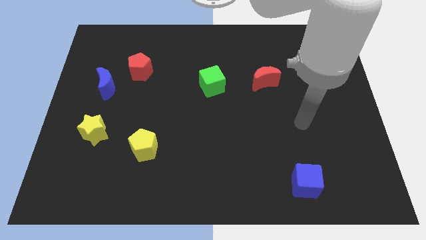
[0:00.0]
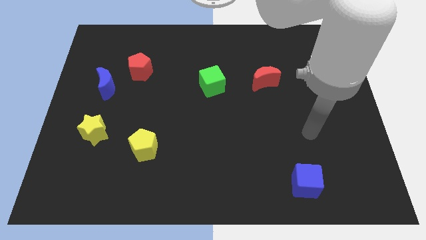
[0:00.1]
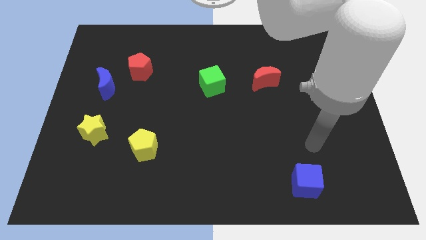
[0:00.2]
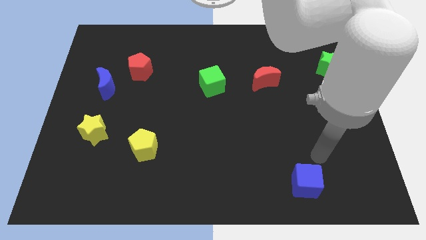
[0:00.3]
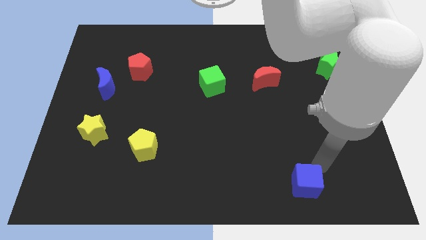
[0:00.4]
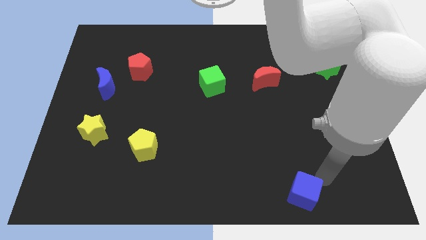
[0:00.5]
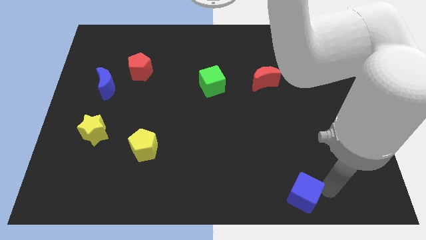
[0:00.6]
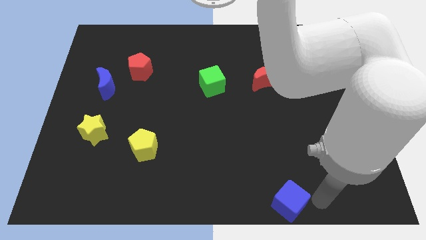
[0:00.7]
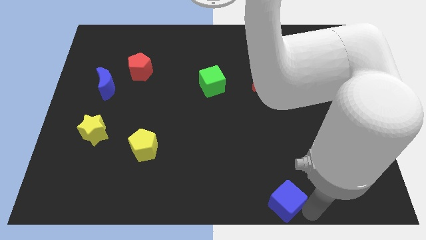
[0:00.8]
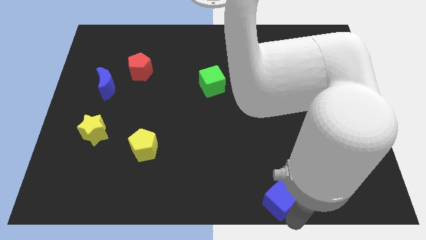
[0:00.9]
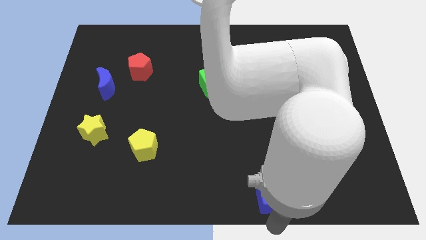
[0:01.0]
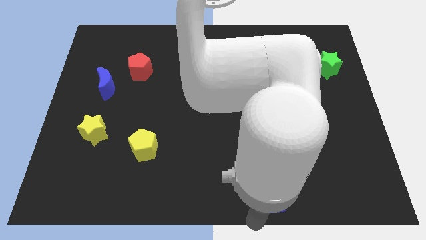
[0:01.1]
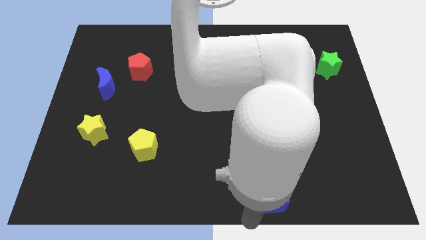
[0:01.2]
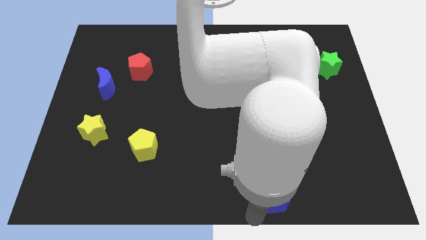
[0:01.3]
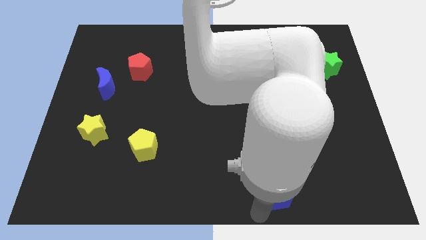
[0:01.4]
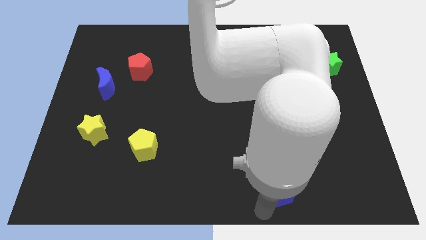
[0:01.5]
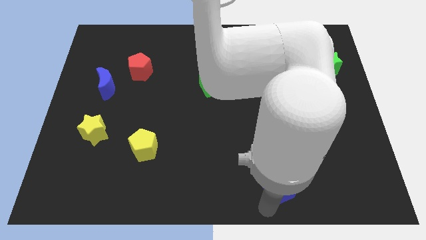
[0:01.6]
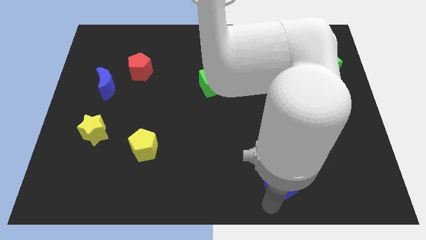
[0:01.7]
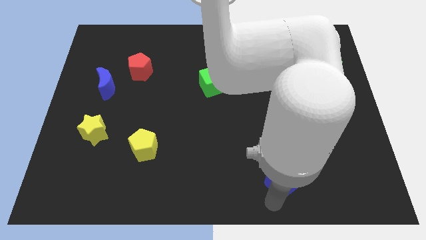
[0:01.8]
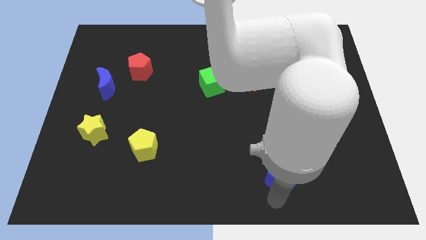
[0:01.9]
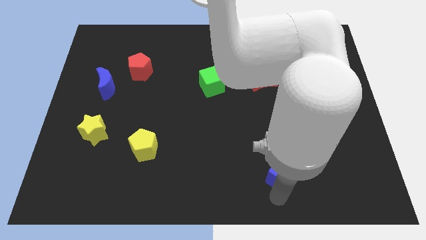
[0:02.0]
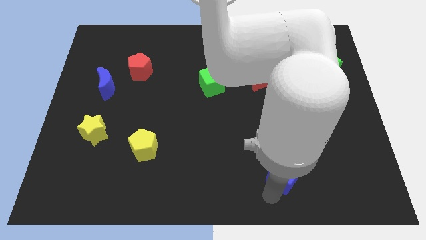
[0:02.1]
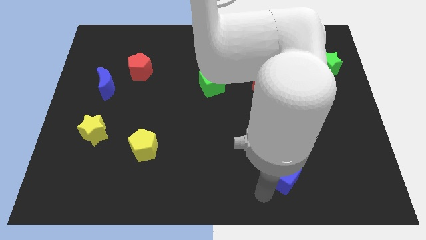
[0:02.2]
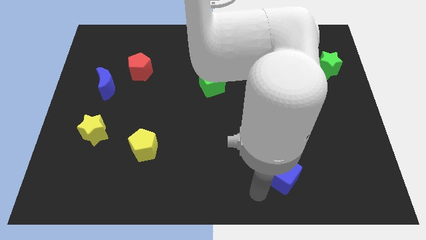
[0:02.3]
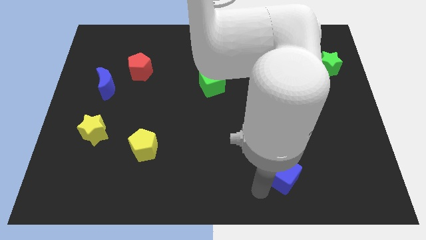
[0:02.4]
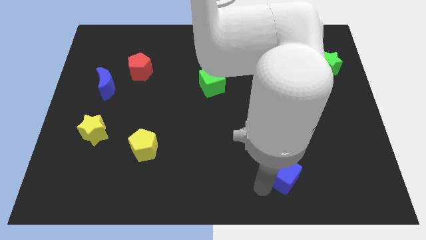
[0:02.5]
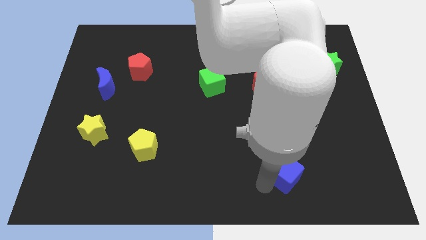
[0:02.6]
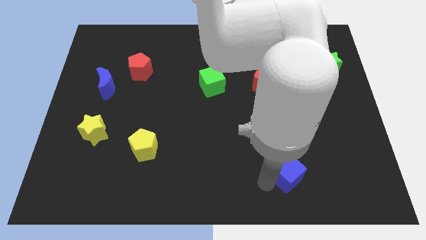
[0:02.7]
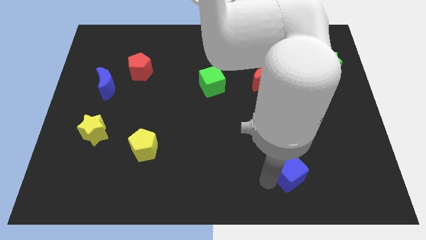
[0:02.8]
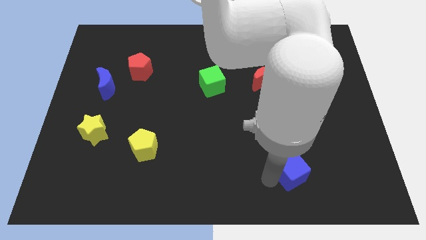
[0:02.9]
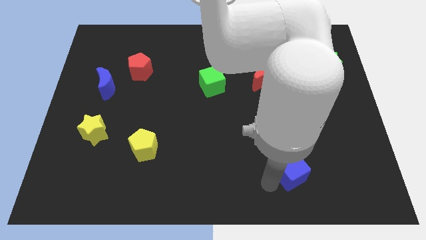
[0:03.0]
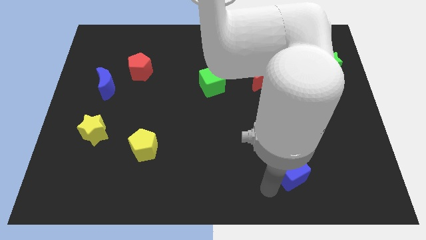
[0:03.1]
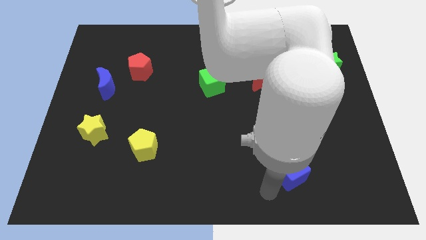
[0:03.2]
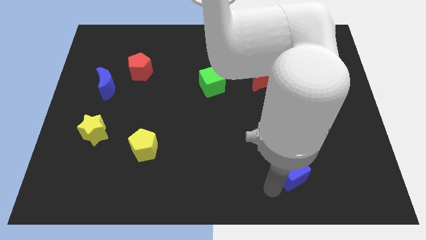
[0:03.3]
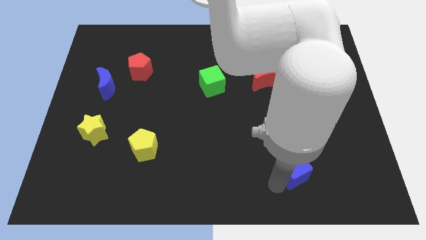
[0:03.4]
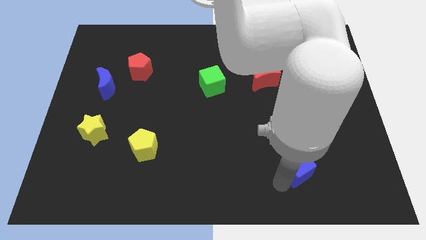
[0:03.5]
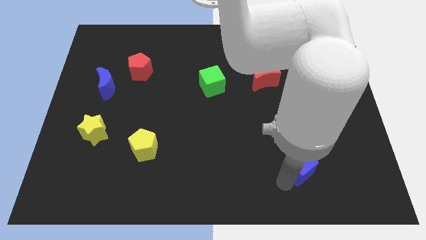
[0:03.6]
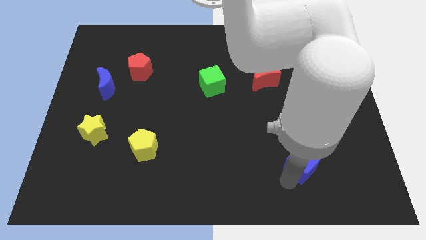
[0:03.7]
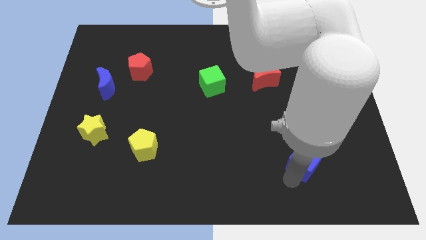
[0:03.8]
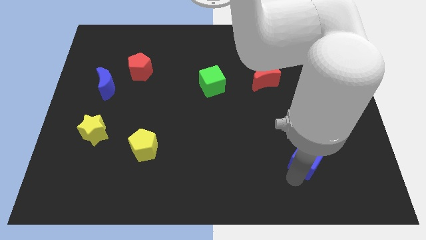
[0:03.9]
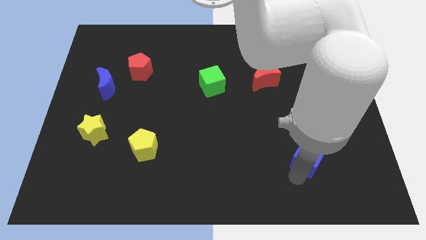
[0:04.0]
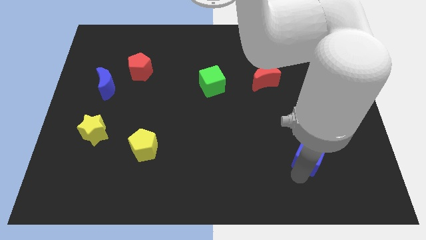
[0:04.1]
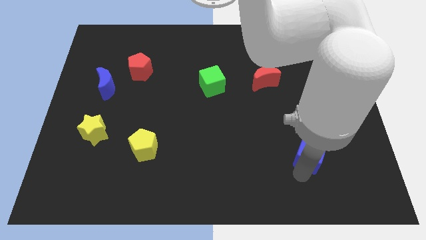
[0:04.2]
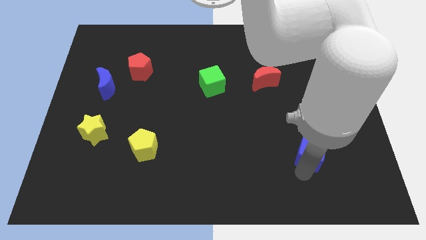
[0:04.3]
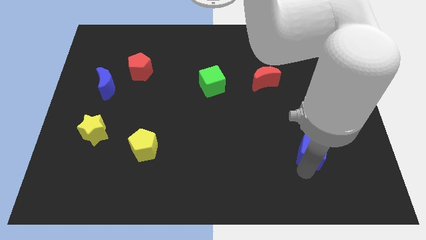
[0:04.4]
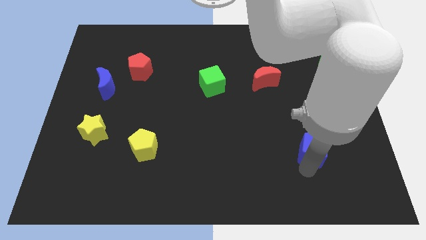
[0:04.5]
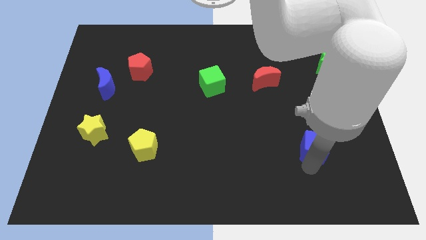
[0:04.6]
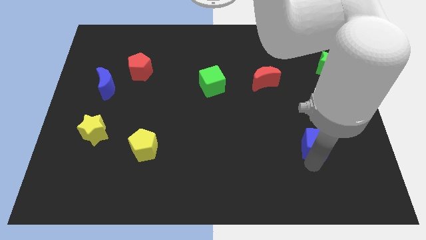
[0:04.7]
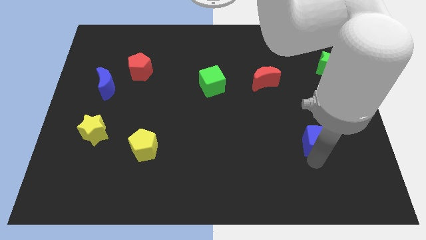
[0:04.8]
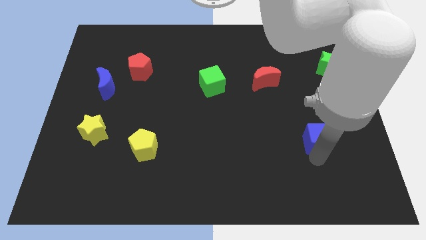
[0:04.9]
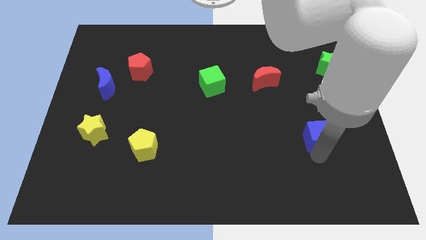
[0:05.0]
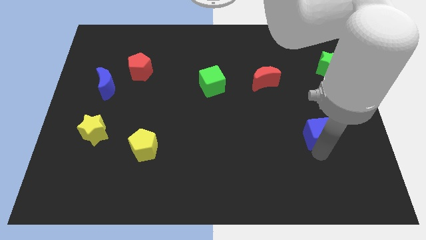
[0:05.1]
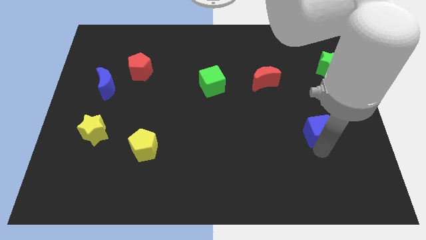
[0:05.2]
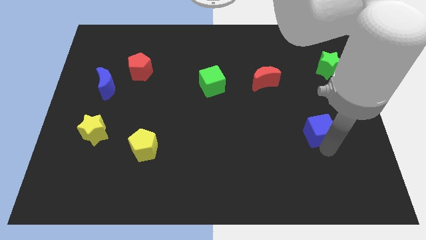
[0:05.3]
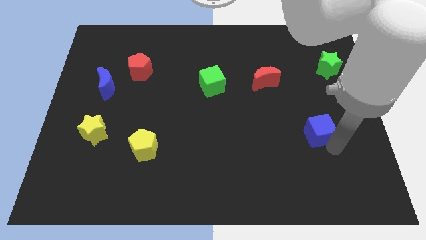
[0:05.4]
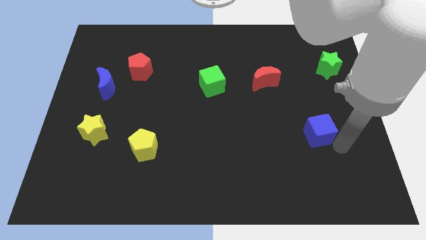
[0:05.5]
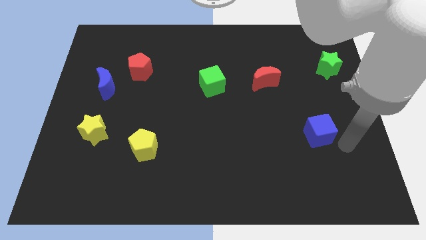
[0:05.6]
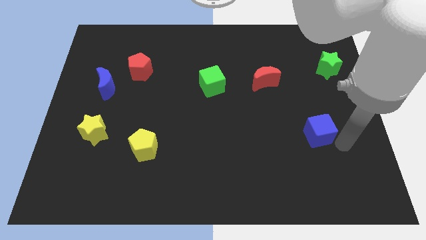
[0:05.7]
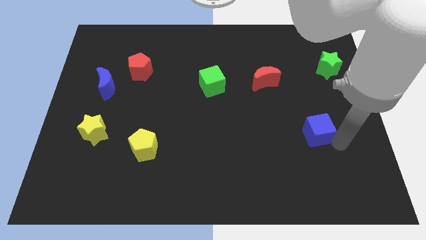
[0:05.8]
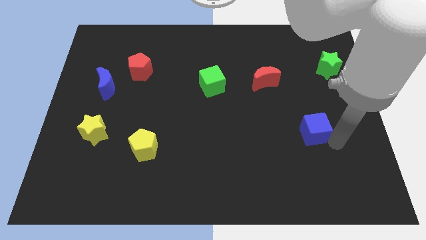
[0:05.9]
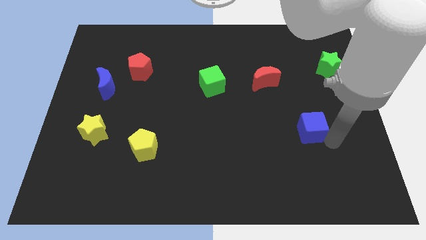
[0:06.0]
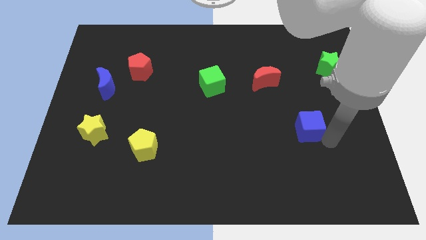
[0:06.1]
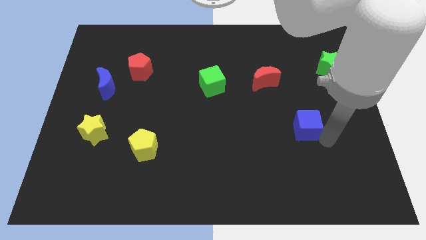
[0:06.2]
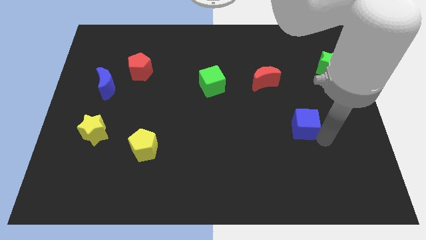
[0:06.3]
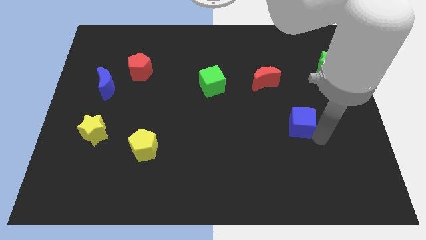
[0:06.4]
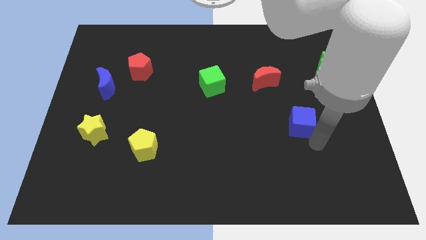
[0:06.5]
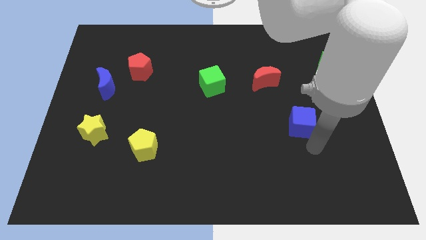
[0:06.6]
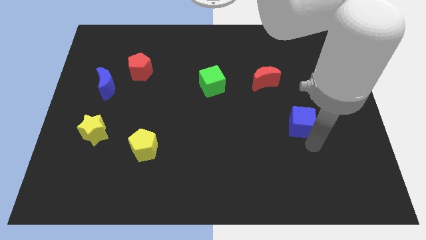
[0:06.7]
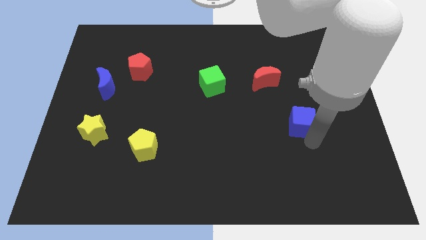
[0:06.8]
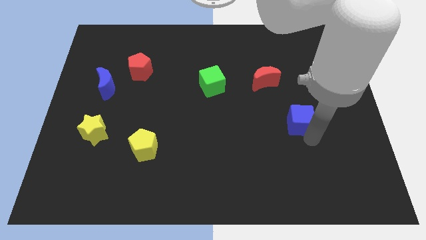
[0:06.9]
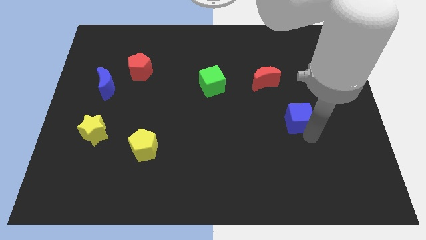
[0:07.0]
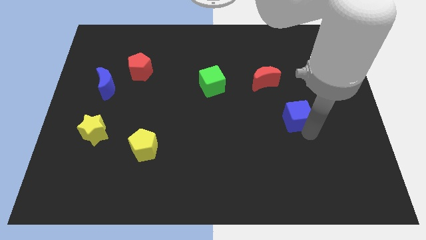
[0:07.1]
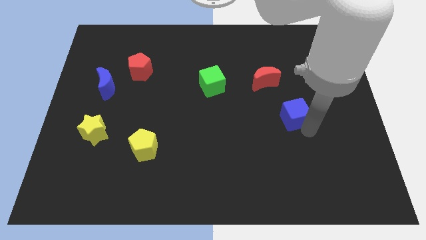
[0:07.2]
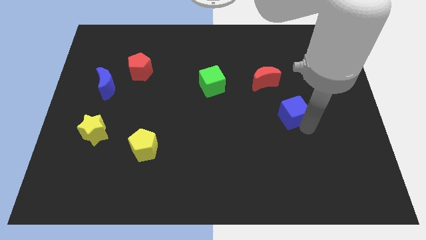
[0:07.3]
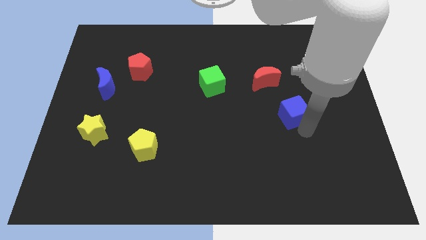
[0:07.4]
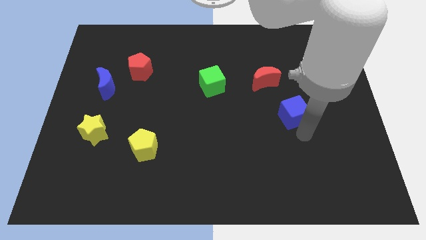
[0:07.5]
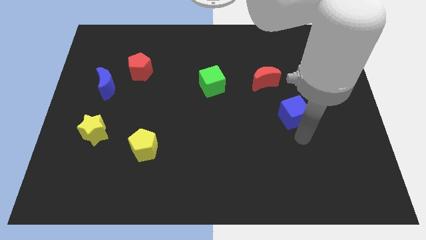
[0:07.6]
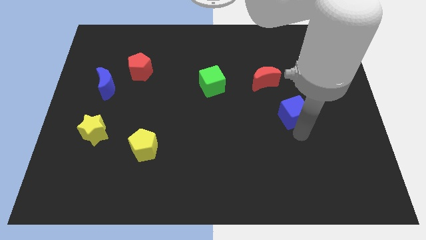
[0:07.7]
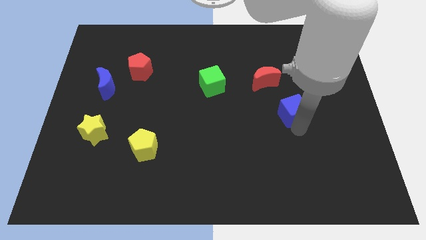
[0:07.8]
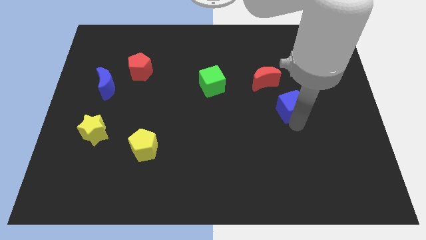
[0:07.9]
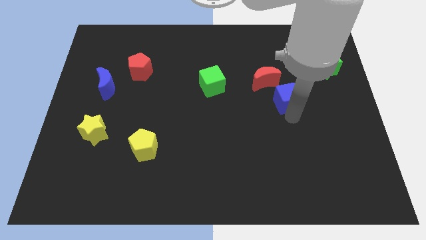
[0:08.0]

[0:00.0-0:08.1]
push the blue cube upwards
